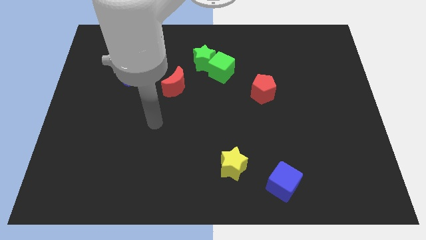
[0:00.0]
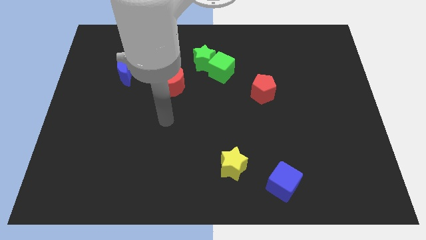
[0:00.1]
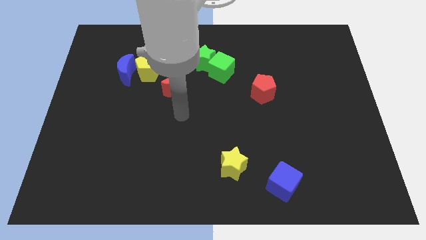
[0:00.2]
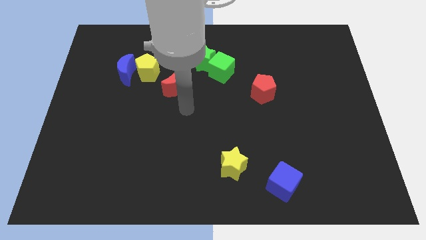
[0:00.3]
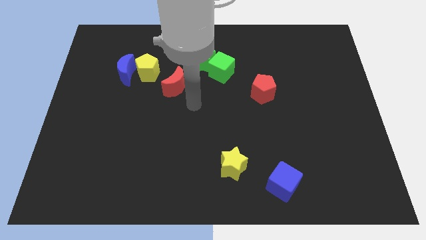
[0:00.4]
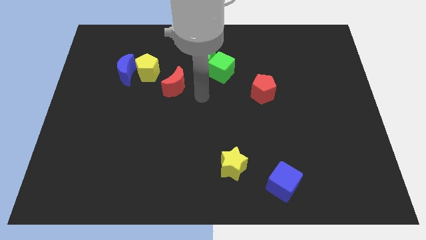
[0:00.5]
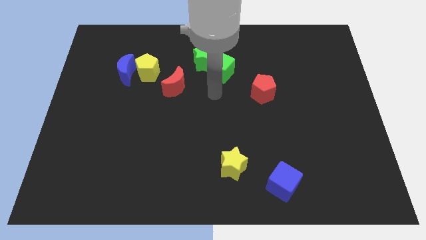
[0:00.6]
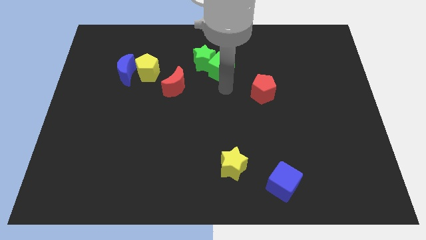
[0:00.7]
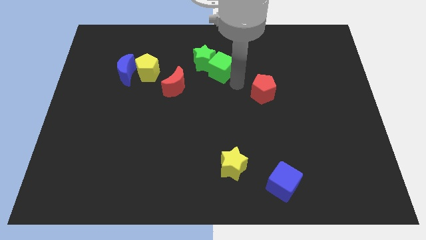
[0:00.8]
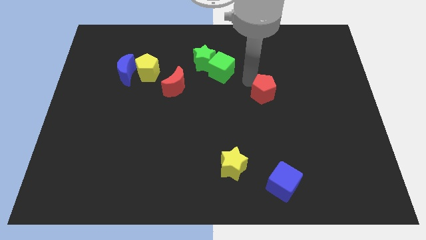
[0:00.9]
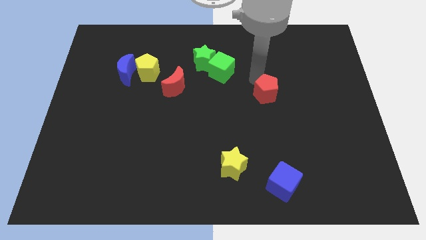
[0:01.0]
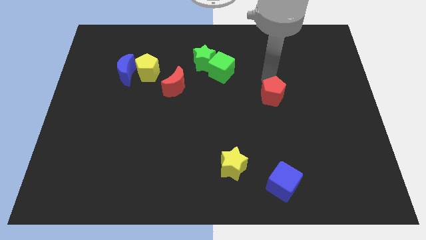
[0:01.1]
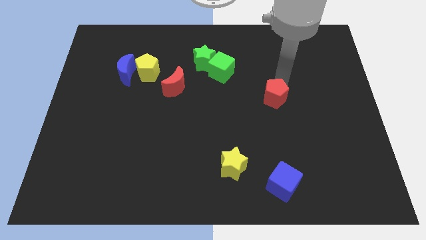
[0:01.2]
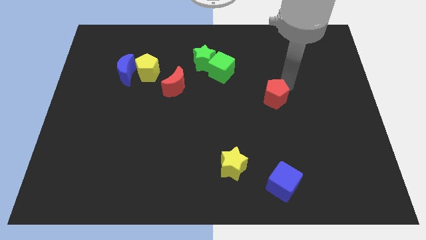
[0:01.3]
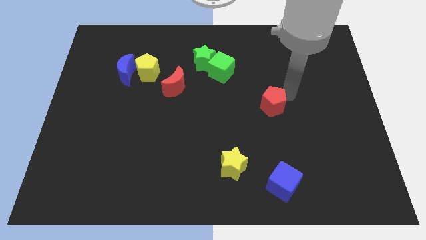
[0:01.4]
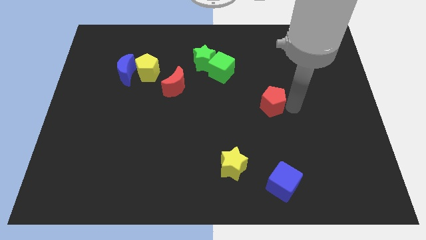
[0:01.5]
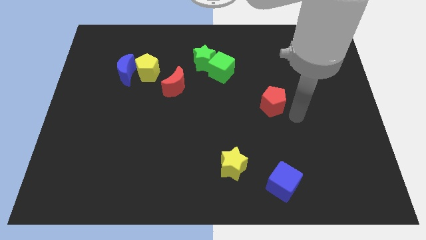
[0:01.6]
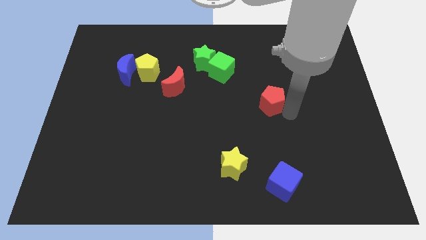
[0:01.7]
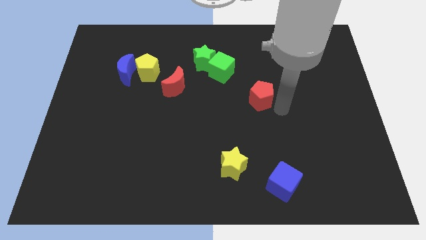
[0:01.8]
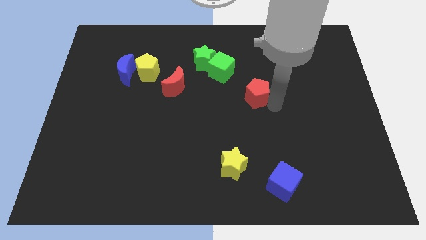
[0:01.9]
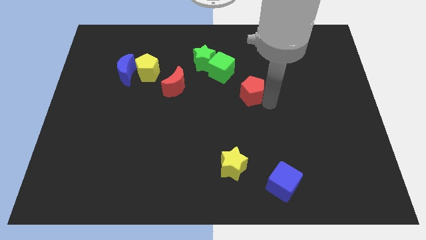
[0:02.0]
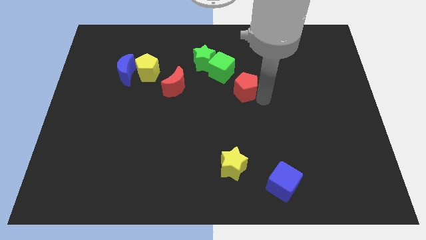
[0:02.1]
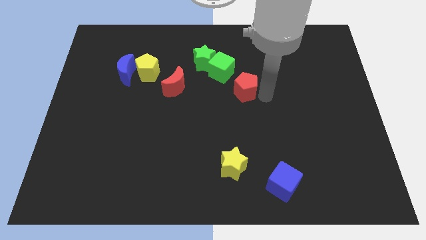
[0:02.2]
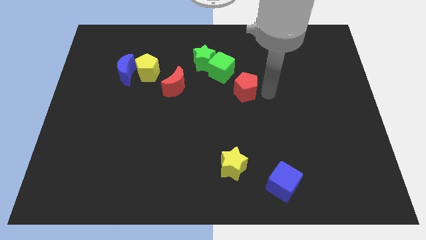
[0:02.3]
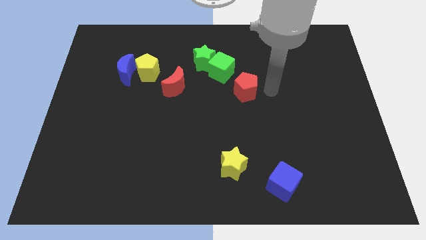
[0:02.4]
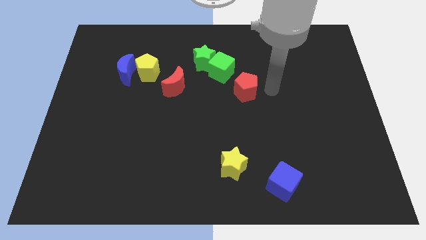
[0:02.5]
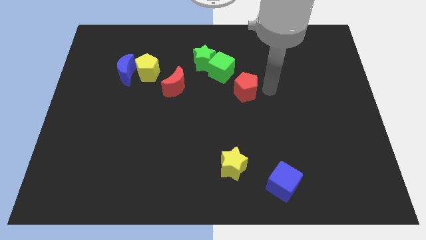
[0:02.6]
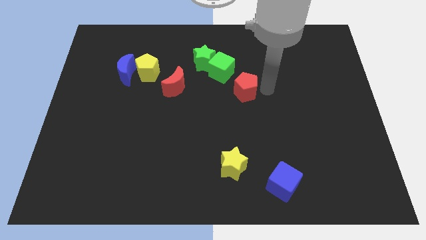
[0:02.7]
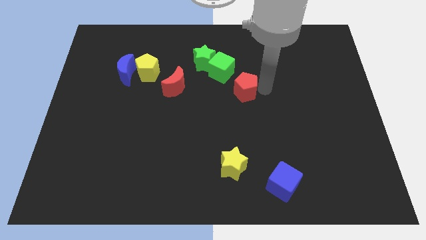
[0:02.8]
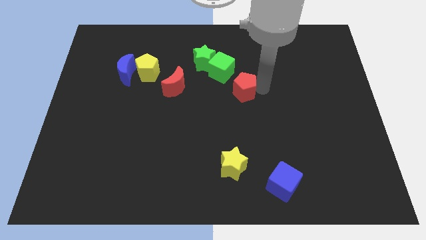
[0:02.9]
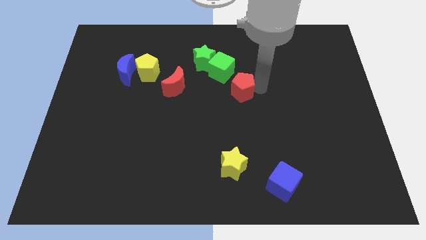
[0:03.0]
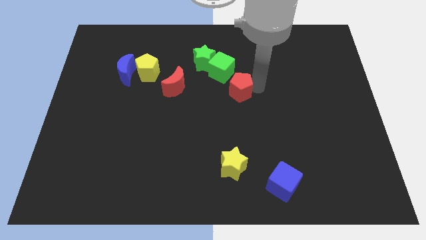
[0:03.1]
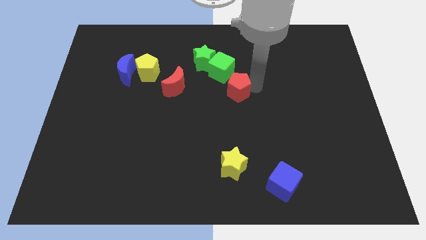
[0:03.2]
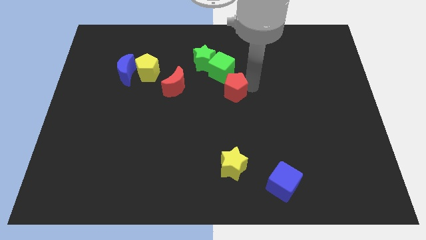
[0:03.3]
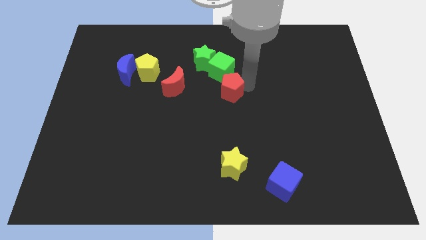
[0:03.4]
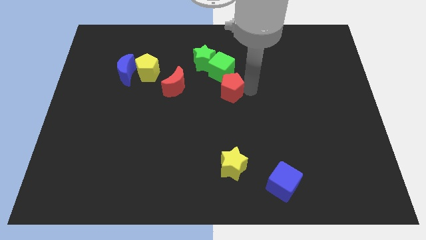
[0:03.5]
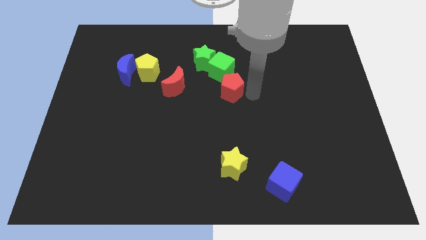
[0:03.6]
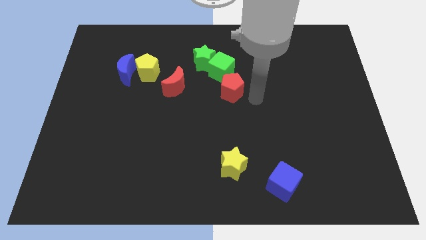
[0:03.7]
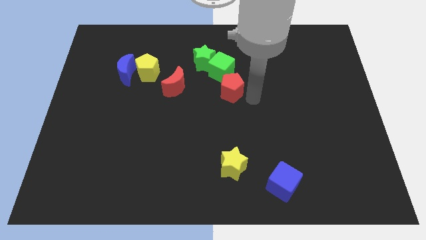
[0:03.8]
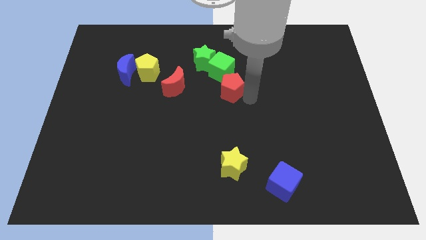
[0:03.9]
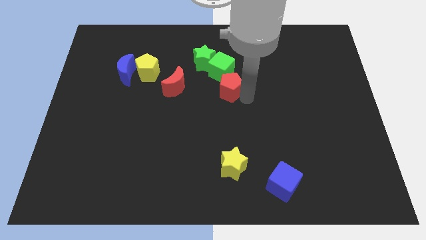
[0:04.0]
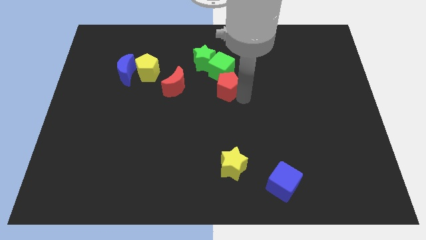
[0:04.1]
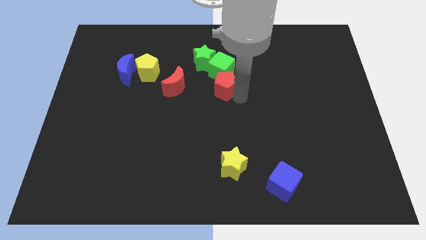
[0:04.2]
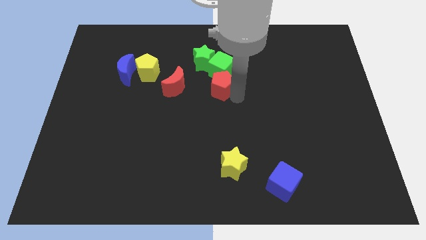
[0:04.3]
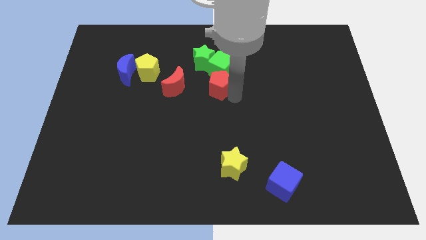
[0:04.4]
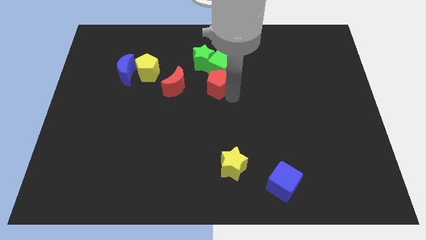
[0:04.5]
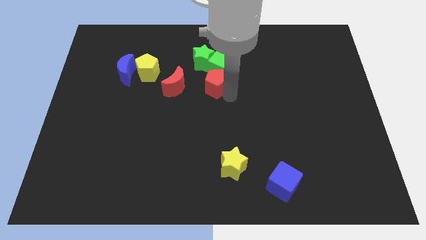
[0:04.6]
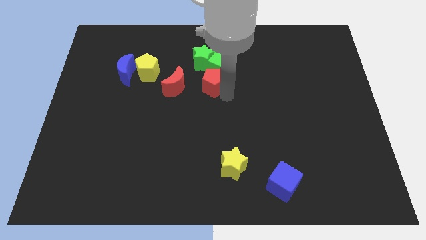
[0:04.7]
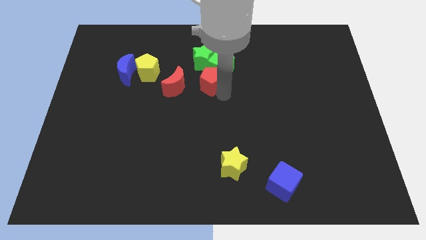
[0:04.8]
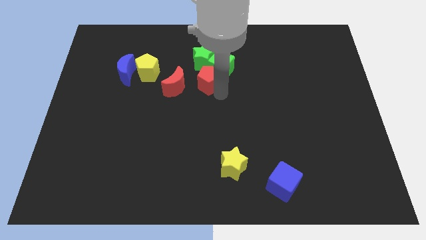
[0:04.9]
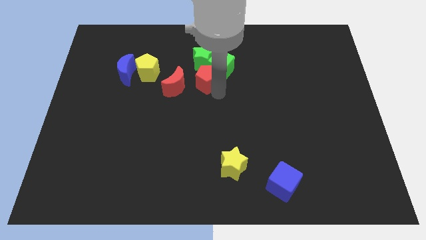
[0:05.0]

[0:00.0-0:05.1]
push the red pentagon to the left of the green cube
